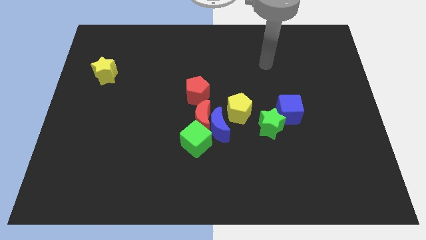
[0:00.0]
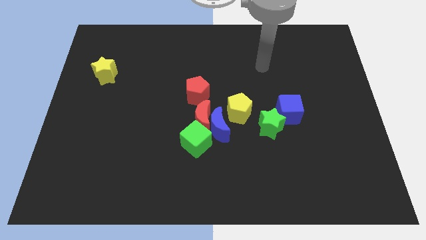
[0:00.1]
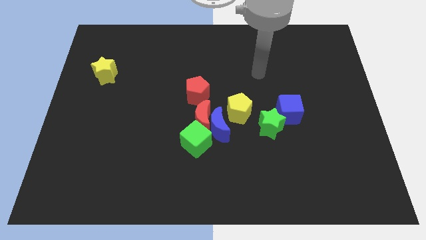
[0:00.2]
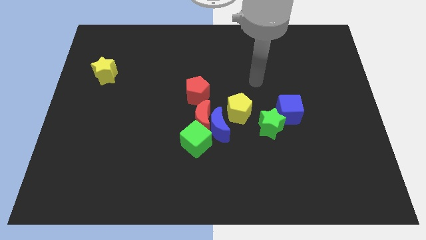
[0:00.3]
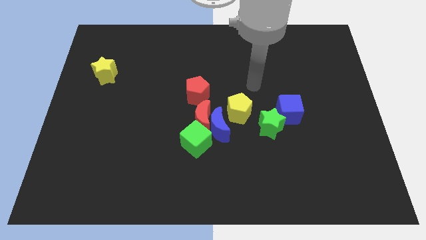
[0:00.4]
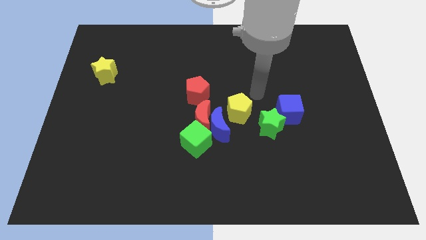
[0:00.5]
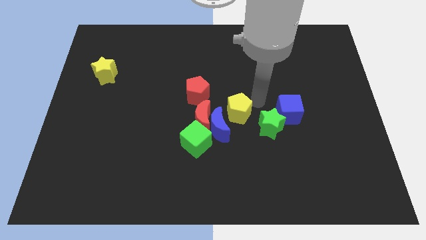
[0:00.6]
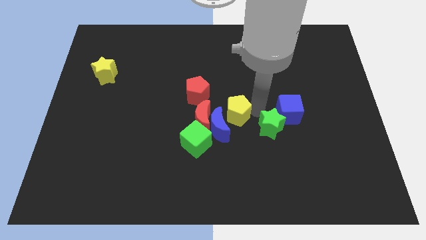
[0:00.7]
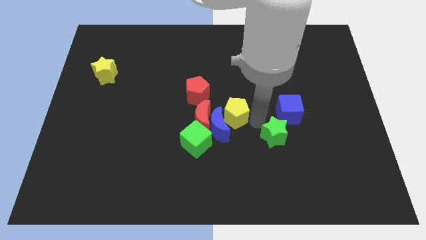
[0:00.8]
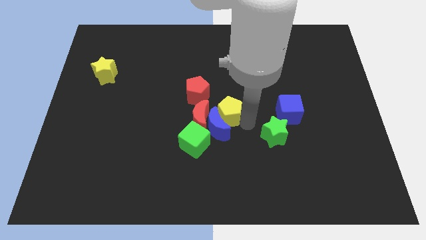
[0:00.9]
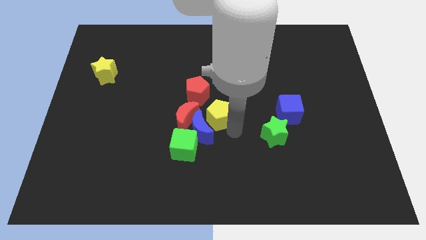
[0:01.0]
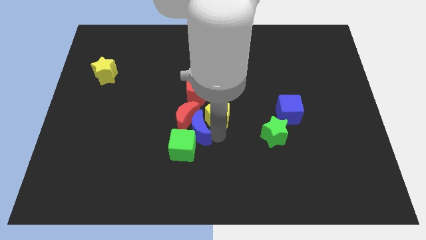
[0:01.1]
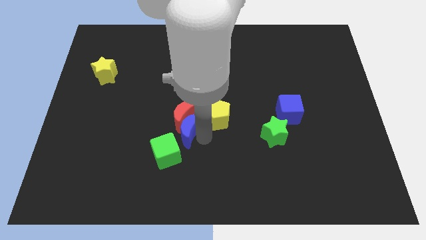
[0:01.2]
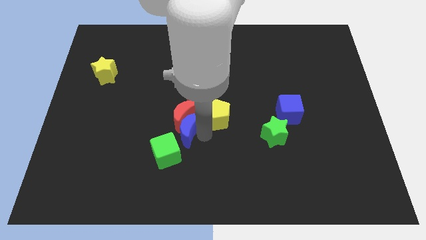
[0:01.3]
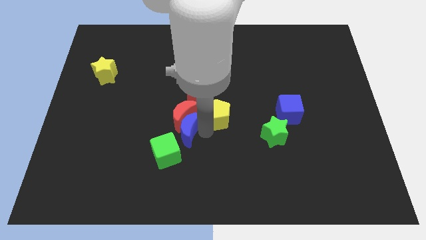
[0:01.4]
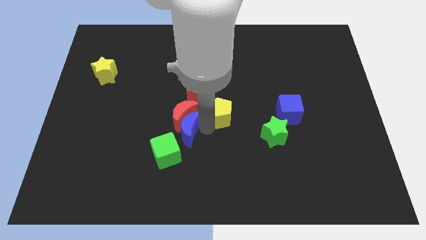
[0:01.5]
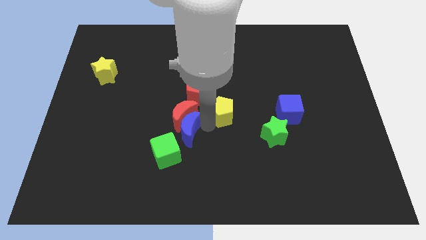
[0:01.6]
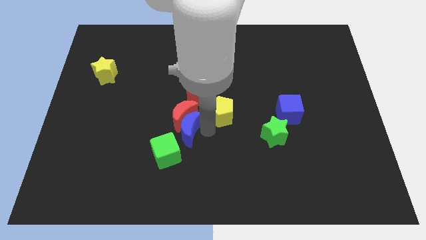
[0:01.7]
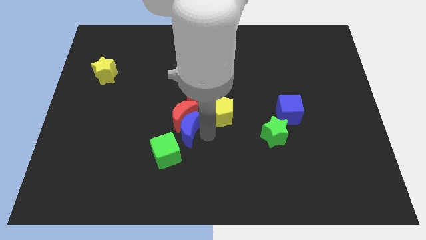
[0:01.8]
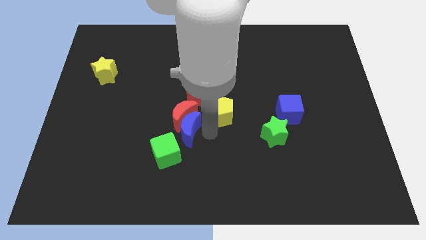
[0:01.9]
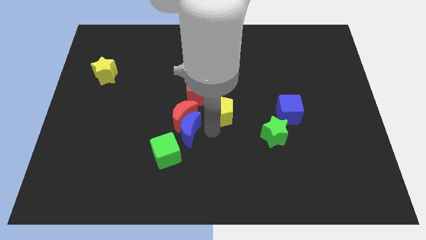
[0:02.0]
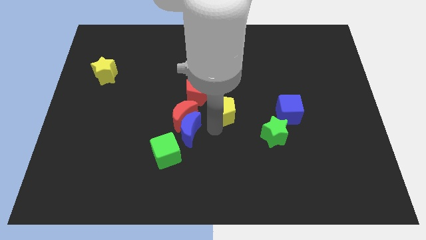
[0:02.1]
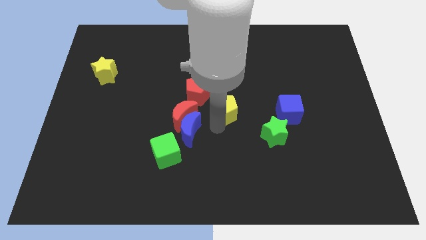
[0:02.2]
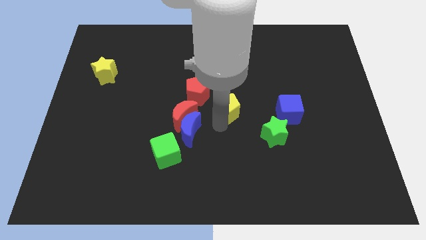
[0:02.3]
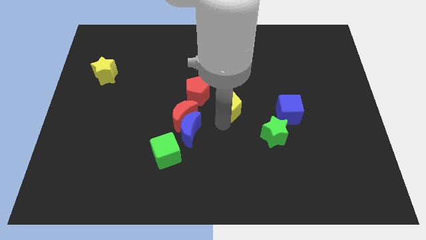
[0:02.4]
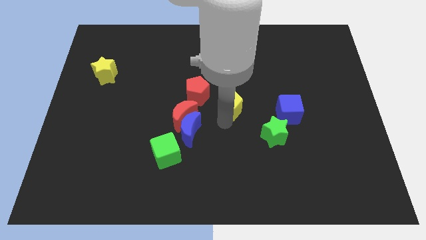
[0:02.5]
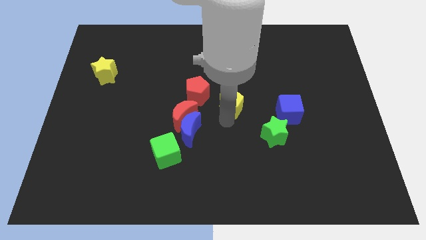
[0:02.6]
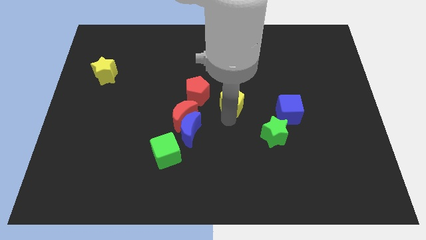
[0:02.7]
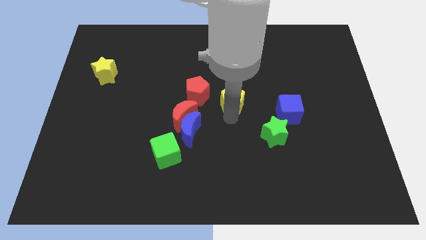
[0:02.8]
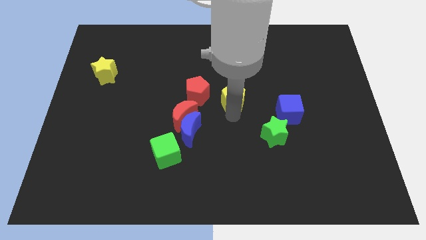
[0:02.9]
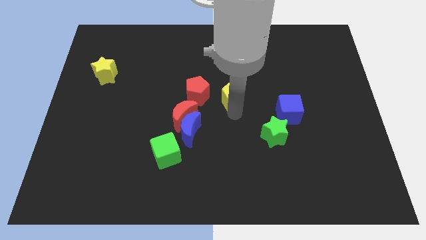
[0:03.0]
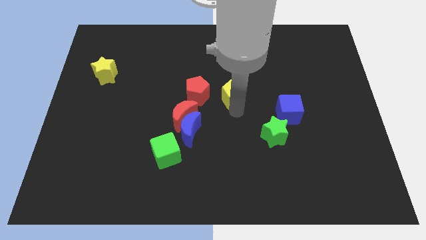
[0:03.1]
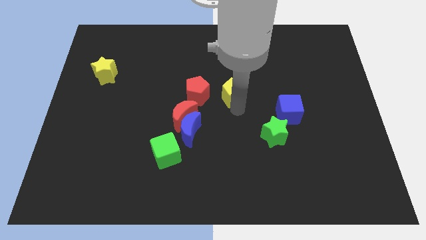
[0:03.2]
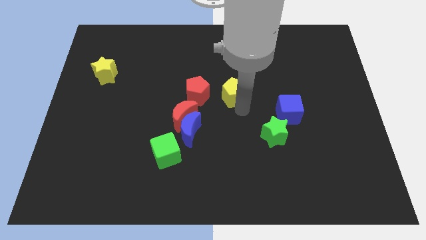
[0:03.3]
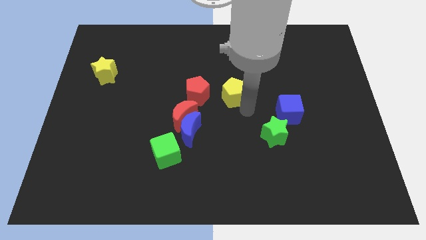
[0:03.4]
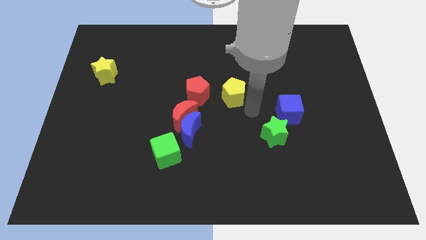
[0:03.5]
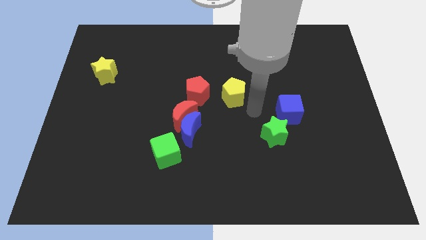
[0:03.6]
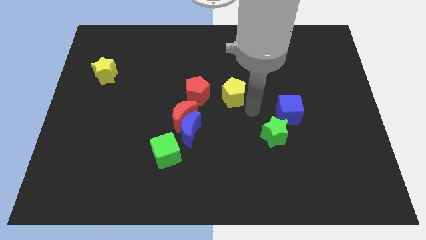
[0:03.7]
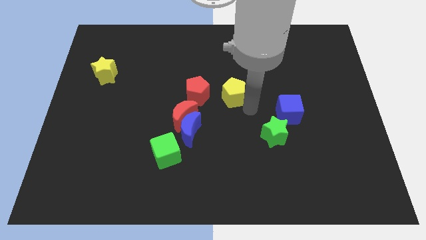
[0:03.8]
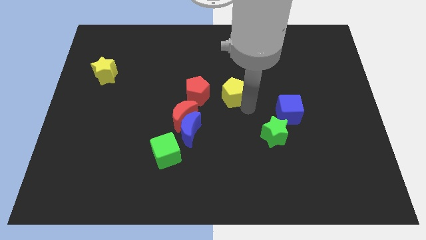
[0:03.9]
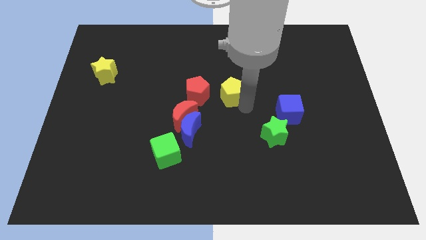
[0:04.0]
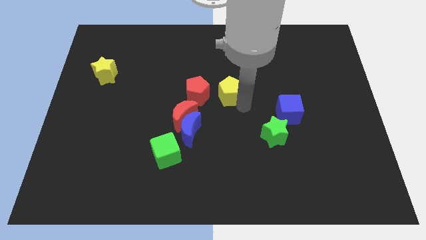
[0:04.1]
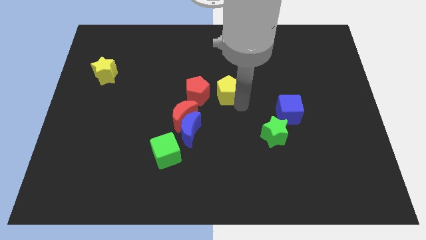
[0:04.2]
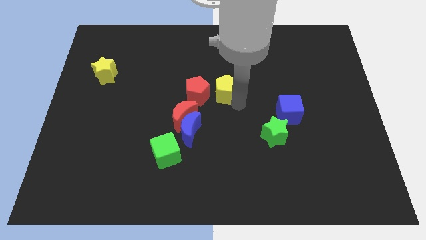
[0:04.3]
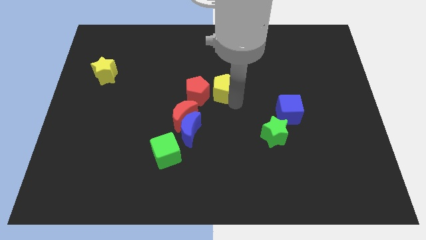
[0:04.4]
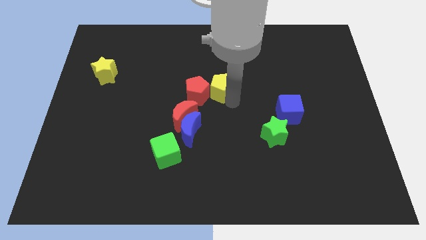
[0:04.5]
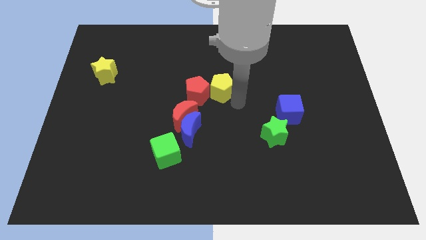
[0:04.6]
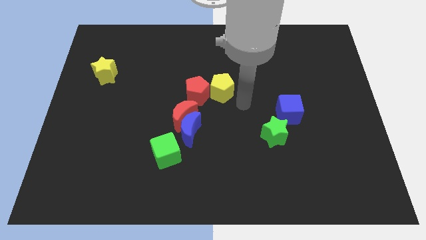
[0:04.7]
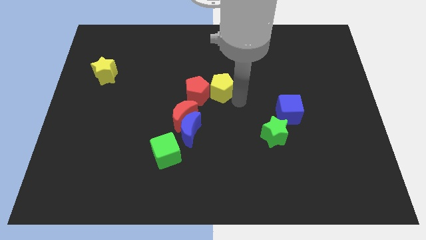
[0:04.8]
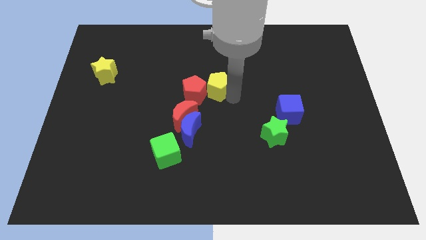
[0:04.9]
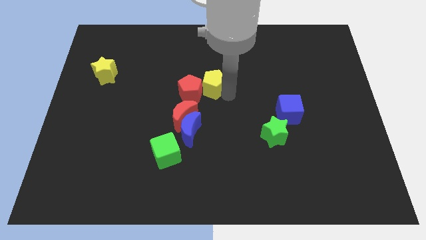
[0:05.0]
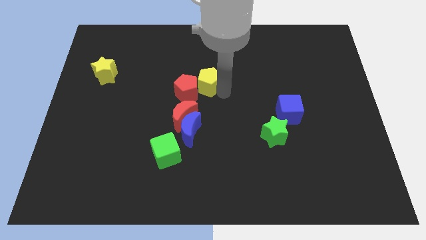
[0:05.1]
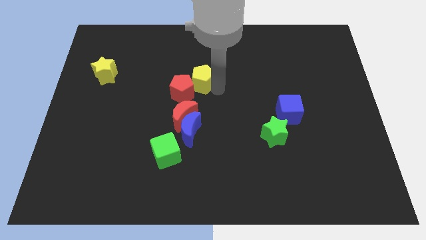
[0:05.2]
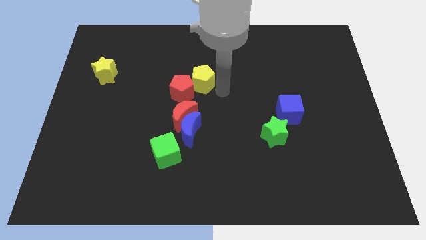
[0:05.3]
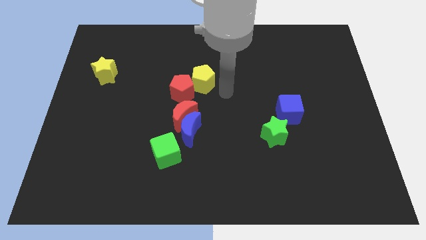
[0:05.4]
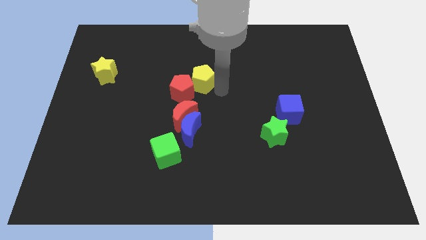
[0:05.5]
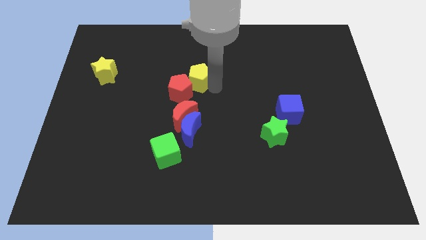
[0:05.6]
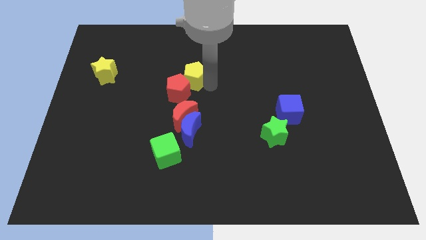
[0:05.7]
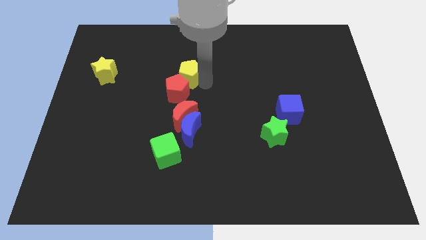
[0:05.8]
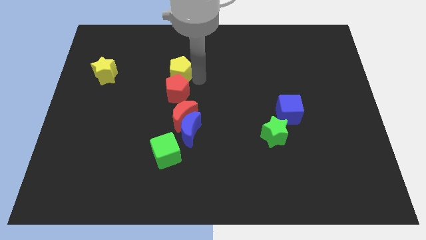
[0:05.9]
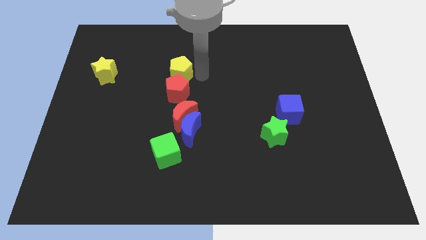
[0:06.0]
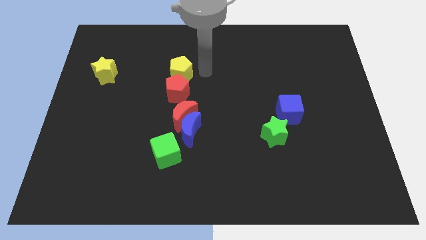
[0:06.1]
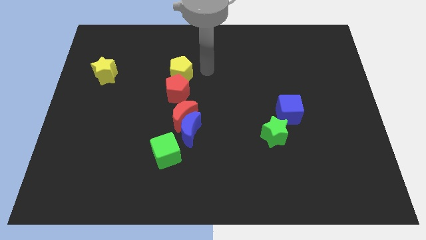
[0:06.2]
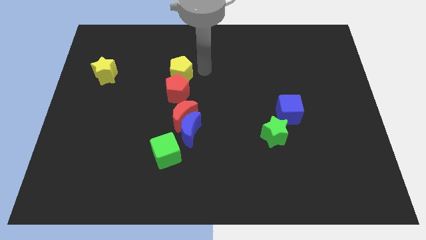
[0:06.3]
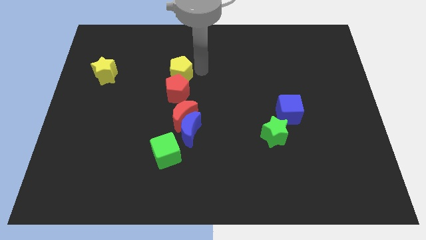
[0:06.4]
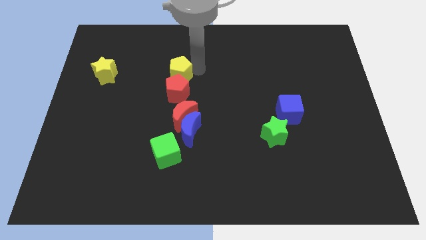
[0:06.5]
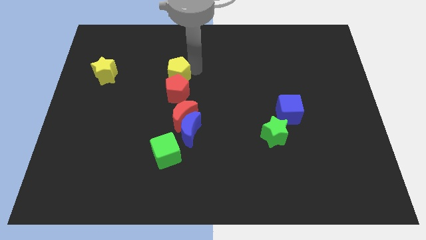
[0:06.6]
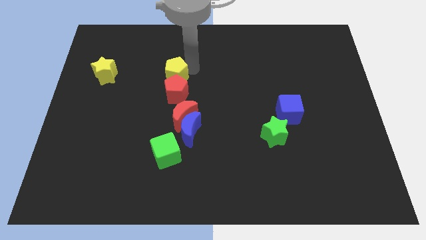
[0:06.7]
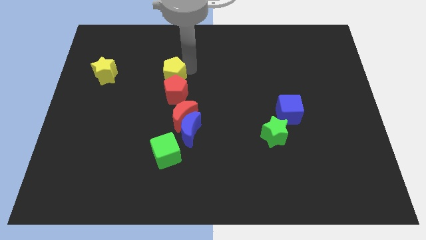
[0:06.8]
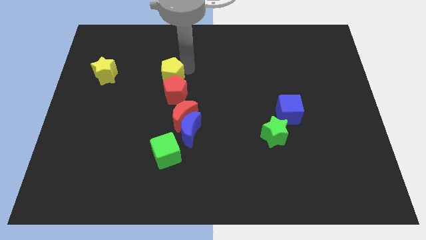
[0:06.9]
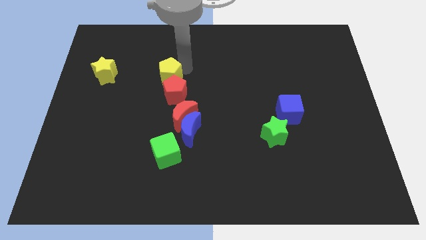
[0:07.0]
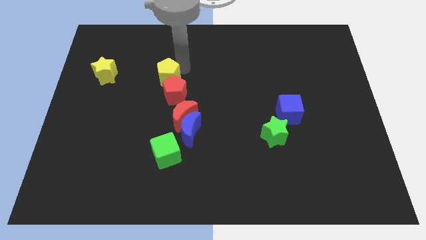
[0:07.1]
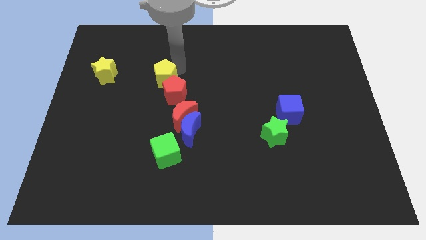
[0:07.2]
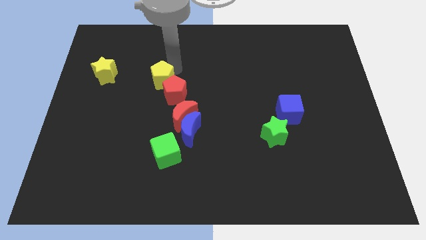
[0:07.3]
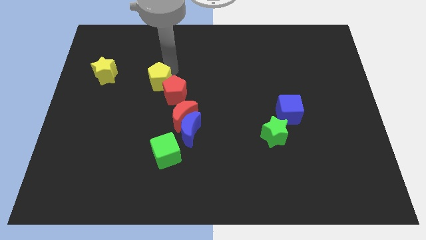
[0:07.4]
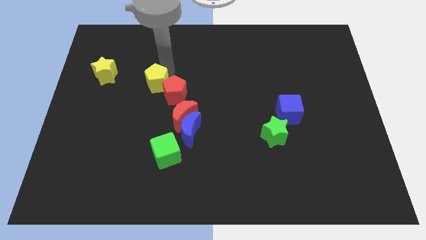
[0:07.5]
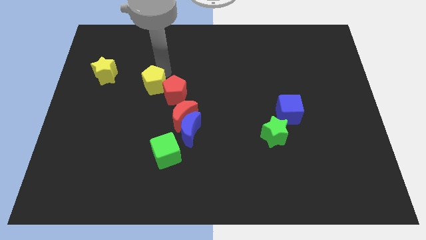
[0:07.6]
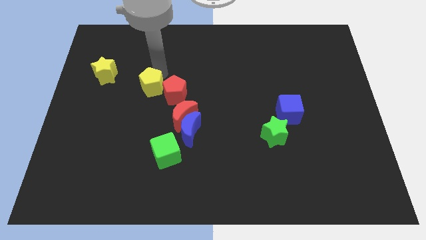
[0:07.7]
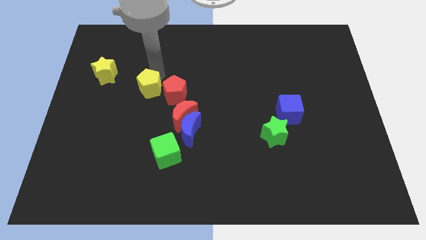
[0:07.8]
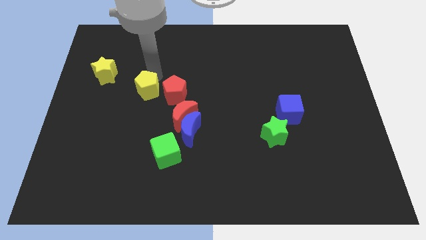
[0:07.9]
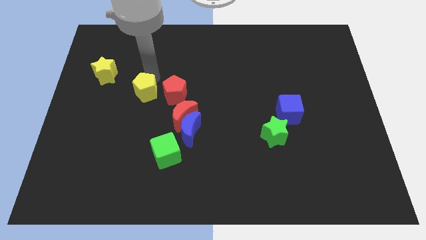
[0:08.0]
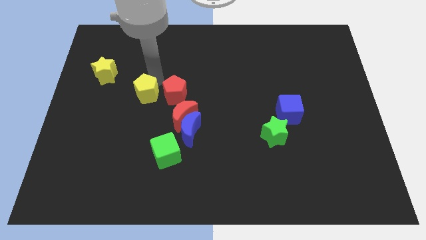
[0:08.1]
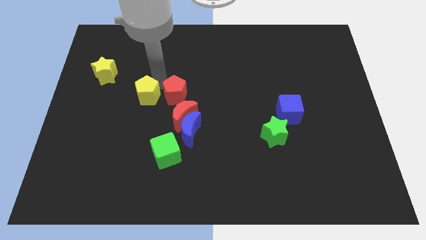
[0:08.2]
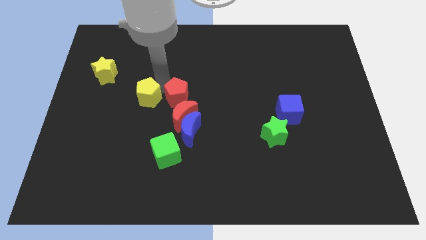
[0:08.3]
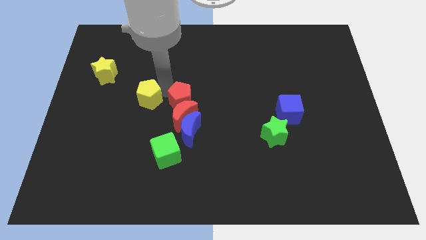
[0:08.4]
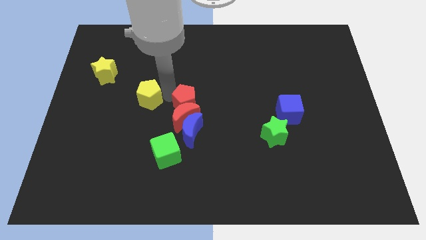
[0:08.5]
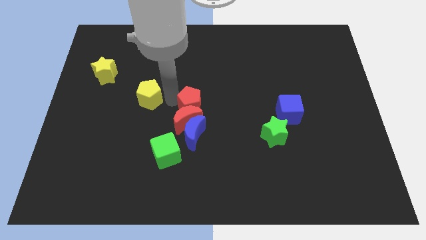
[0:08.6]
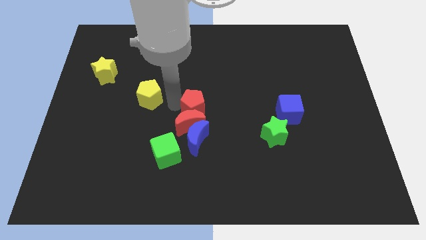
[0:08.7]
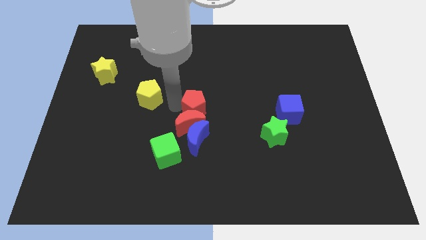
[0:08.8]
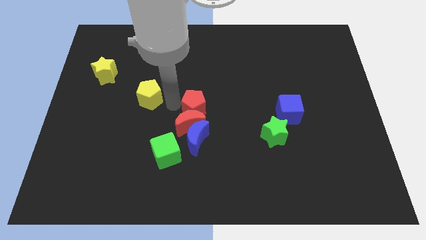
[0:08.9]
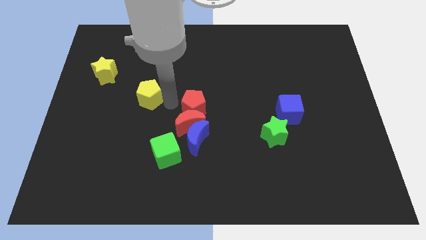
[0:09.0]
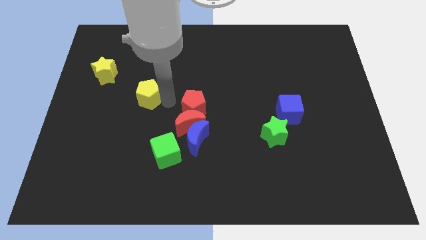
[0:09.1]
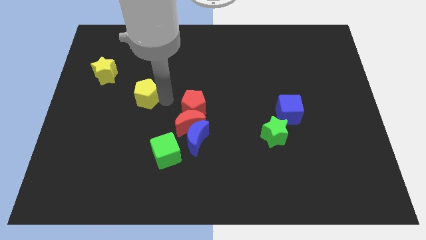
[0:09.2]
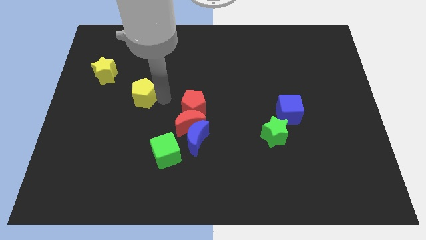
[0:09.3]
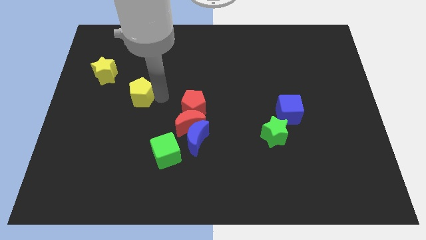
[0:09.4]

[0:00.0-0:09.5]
push the yellow pentagon to the bottom right side of the yellow star
